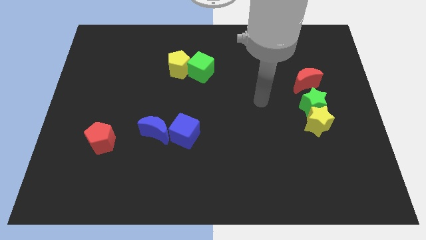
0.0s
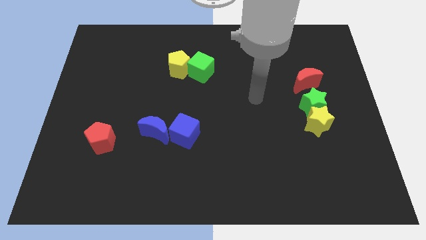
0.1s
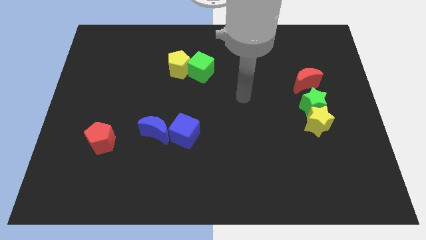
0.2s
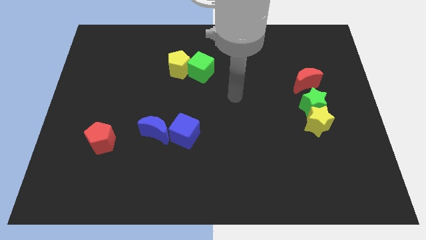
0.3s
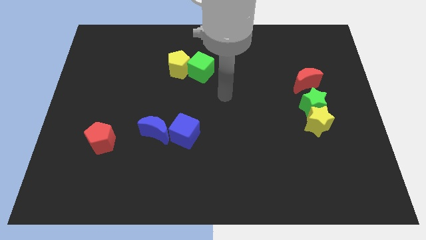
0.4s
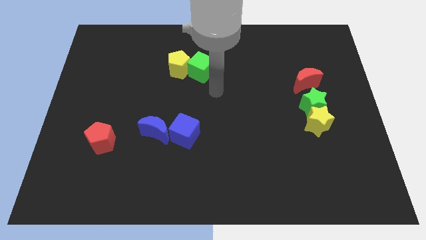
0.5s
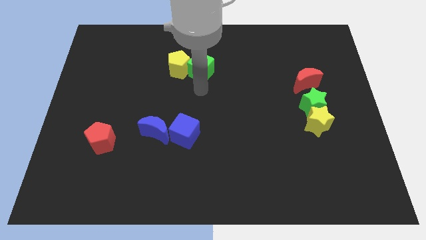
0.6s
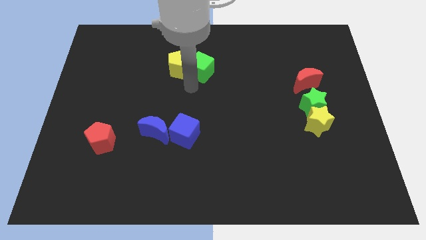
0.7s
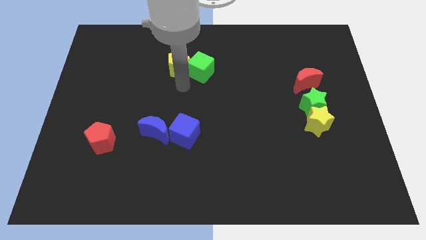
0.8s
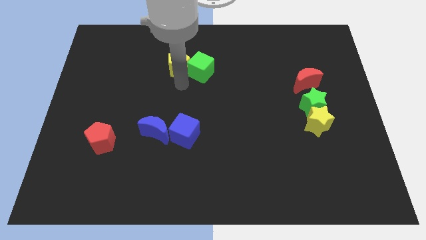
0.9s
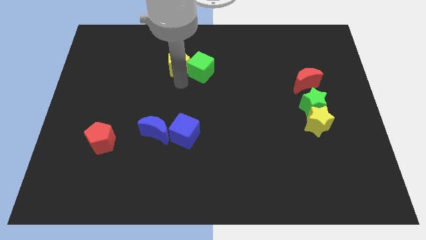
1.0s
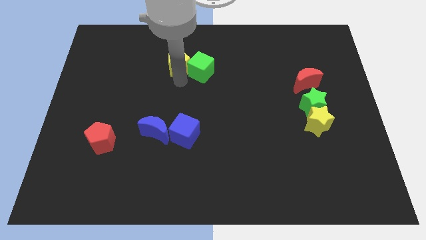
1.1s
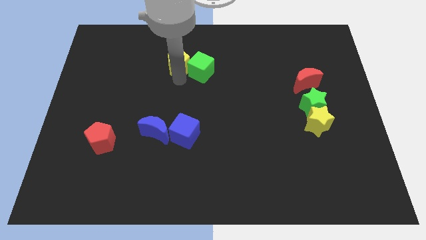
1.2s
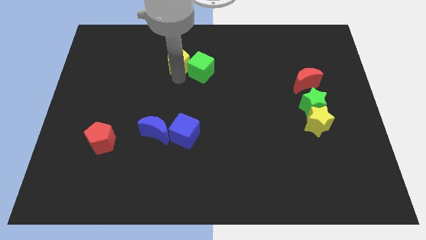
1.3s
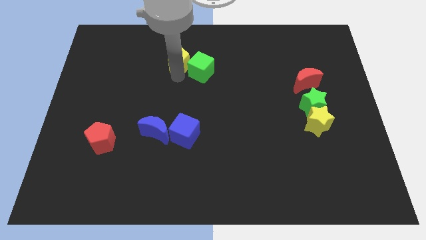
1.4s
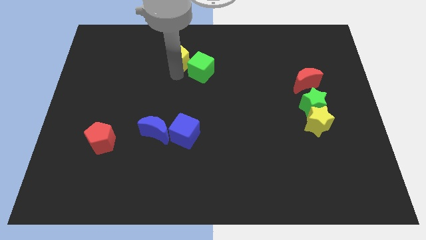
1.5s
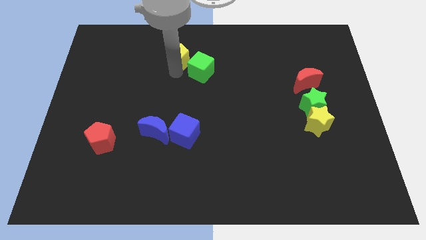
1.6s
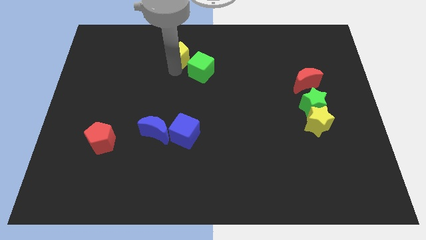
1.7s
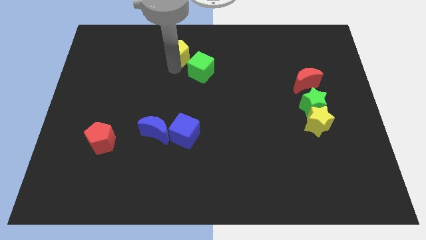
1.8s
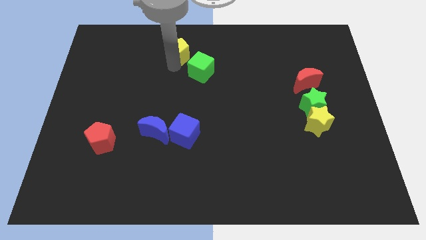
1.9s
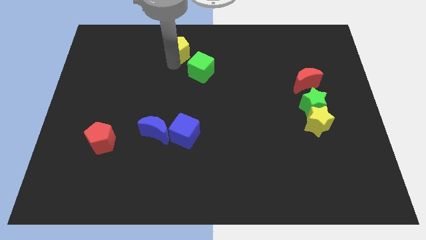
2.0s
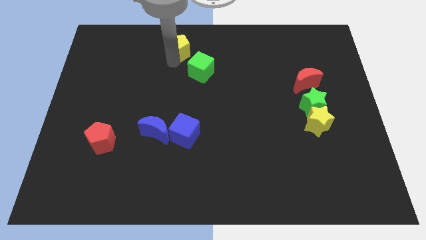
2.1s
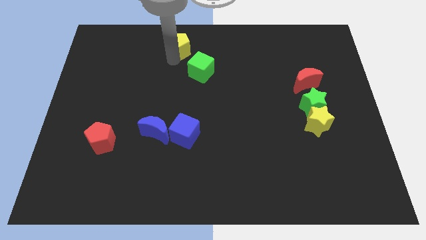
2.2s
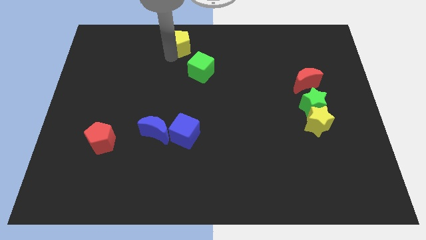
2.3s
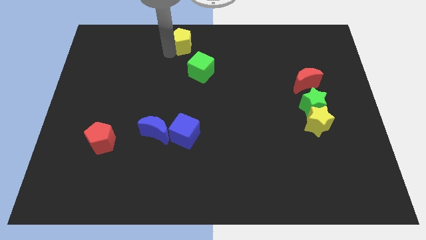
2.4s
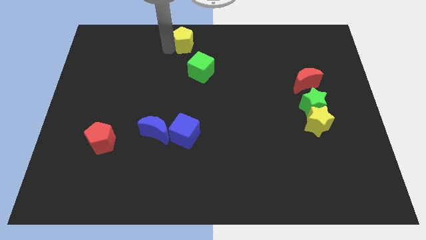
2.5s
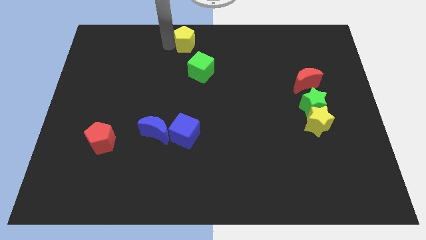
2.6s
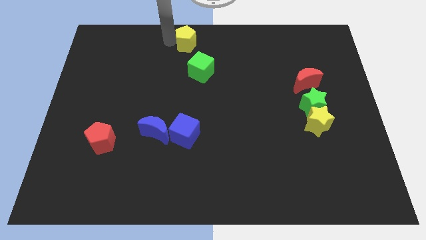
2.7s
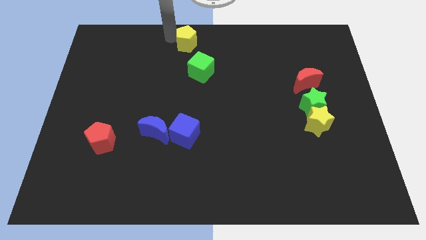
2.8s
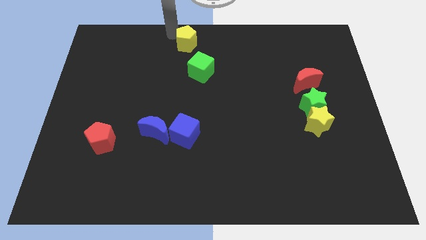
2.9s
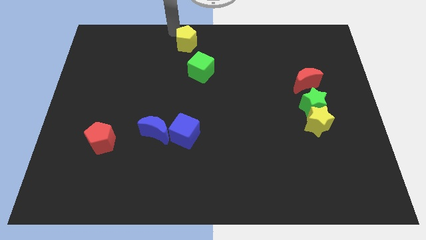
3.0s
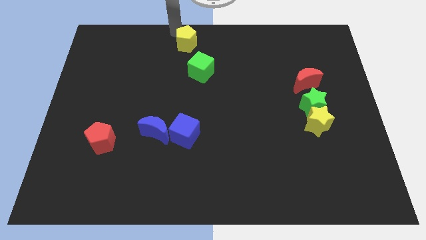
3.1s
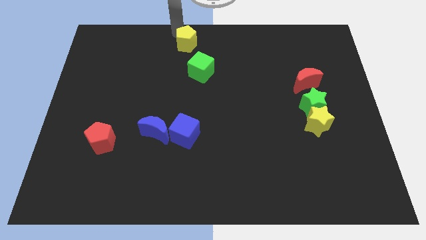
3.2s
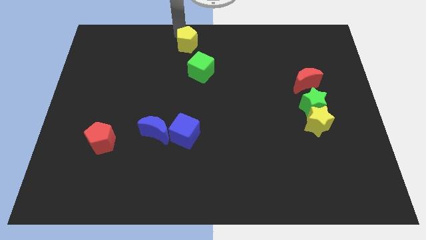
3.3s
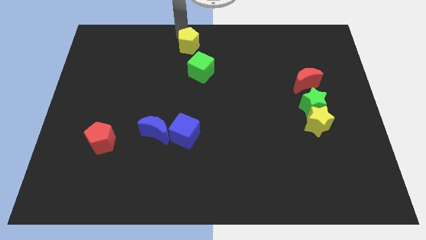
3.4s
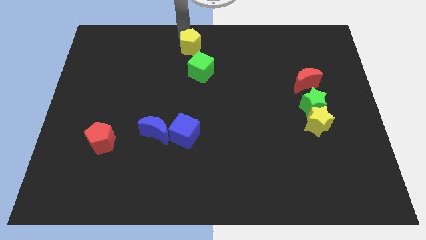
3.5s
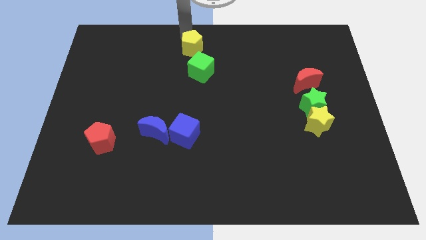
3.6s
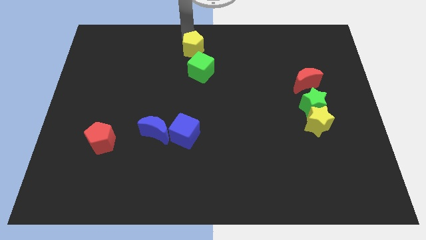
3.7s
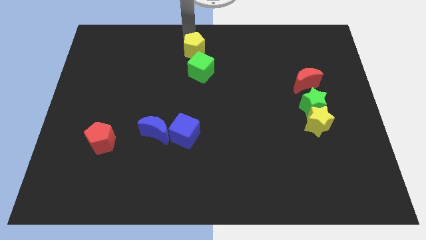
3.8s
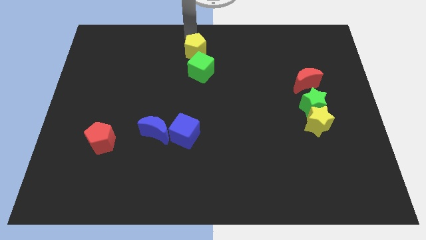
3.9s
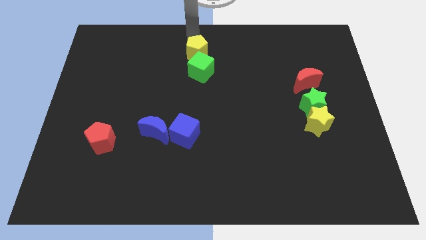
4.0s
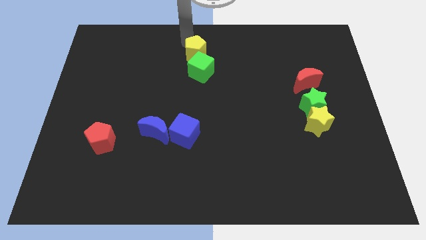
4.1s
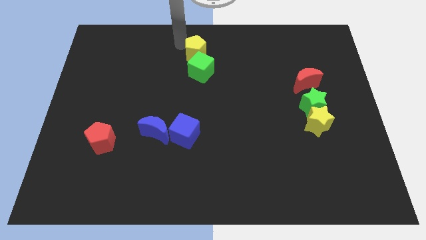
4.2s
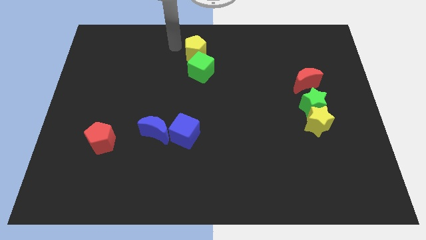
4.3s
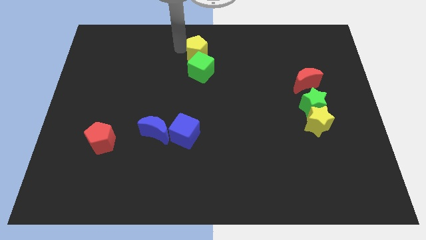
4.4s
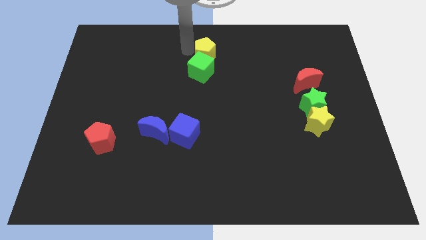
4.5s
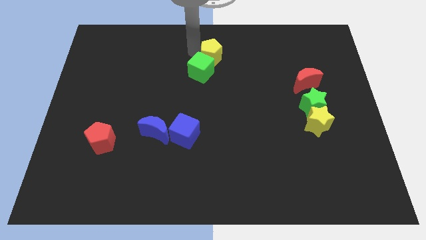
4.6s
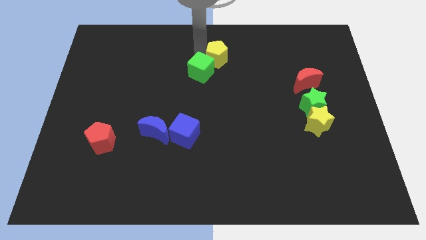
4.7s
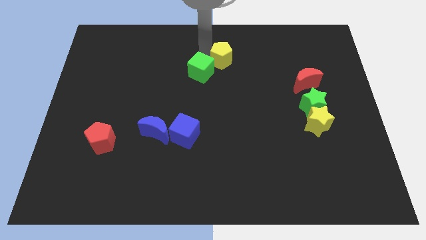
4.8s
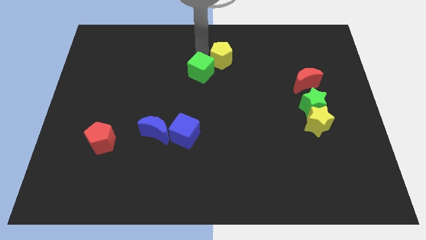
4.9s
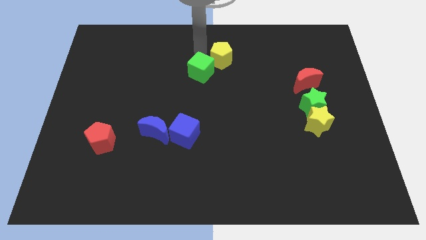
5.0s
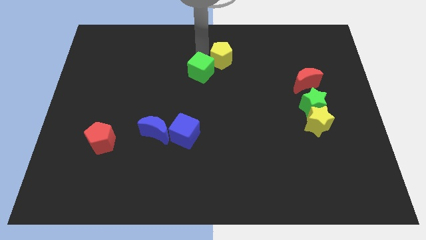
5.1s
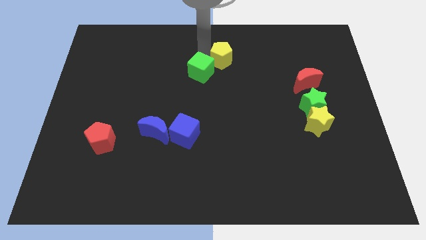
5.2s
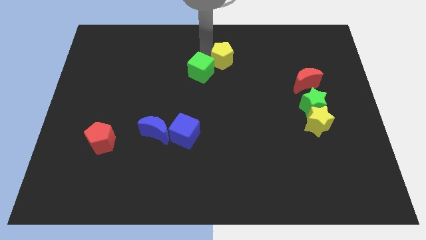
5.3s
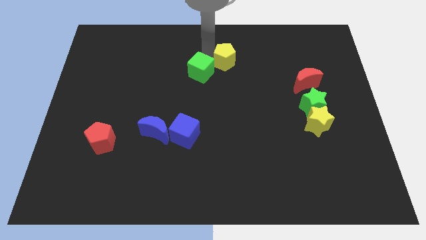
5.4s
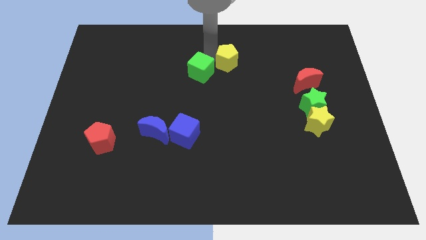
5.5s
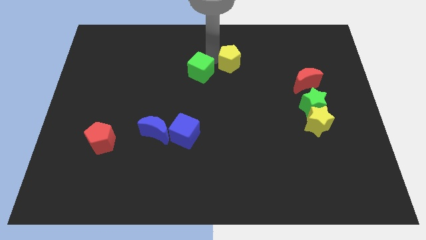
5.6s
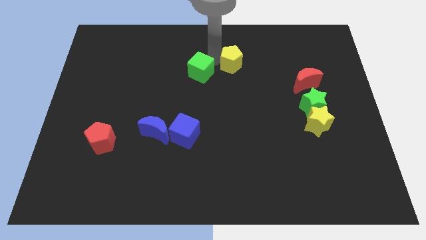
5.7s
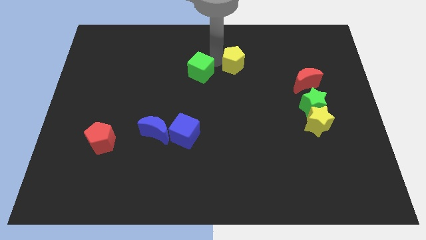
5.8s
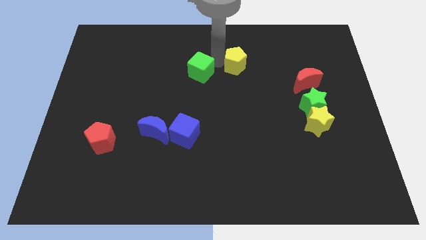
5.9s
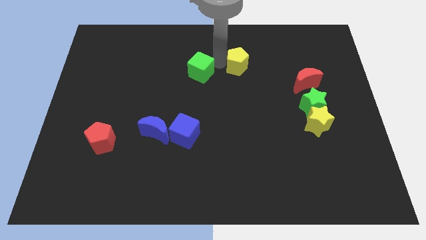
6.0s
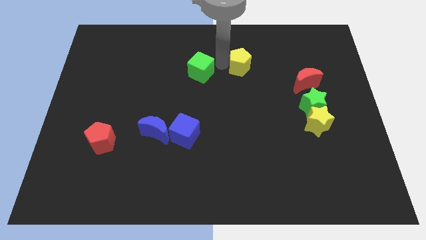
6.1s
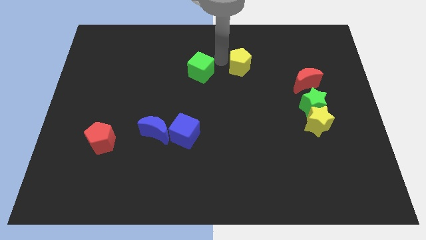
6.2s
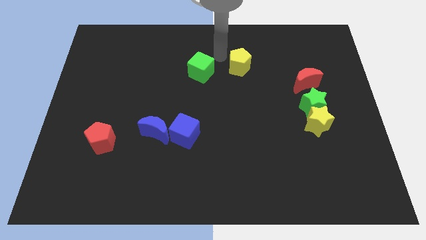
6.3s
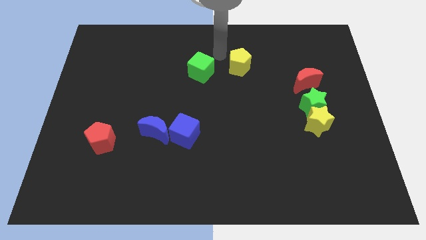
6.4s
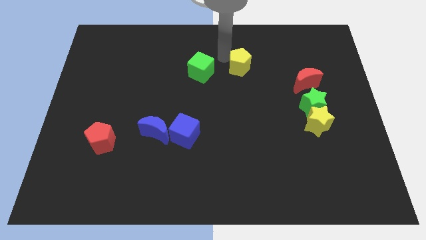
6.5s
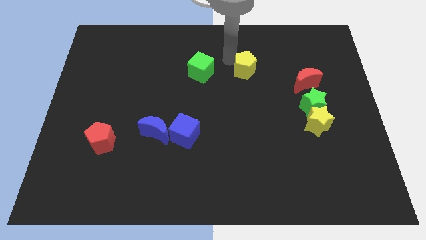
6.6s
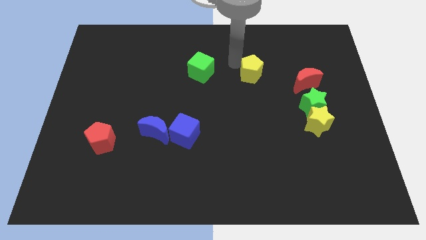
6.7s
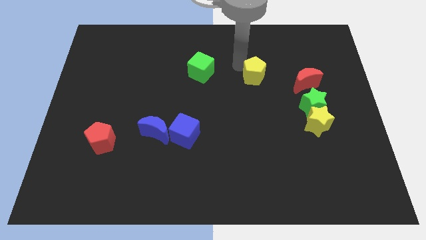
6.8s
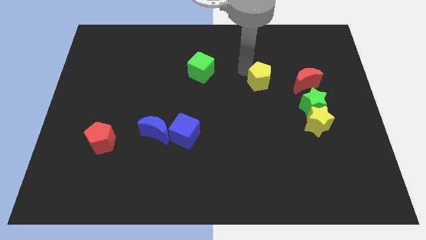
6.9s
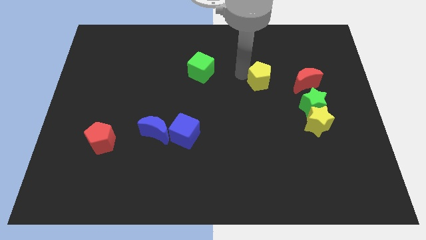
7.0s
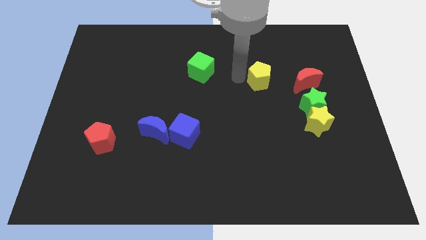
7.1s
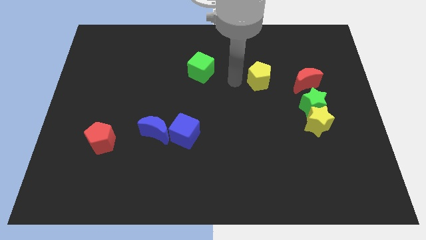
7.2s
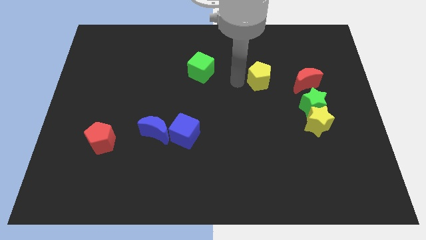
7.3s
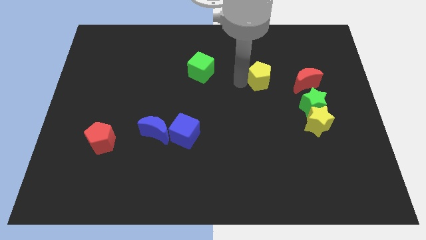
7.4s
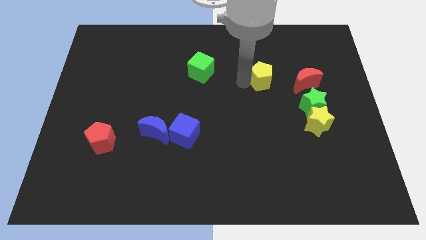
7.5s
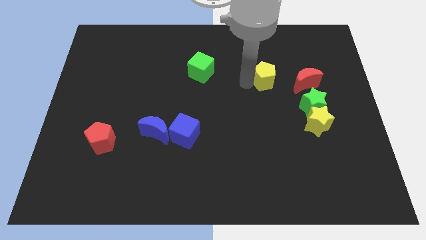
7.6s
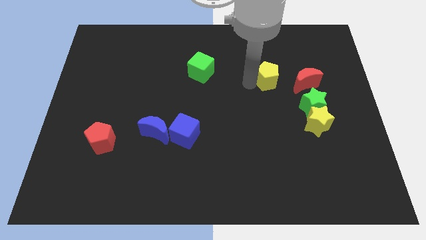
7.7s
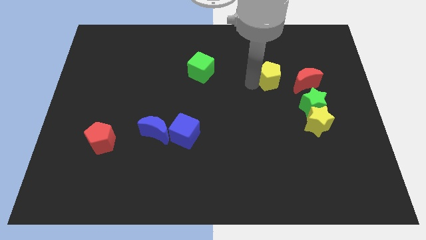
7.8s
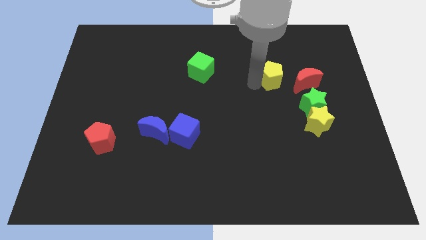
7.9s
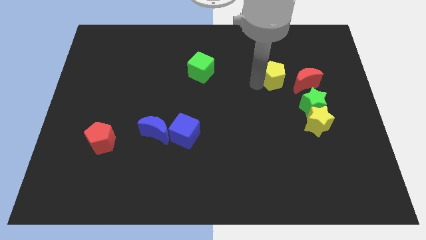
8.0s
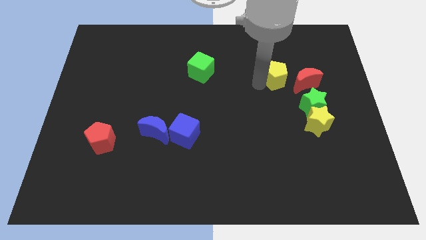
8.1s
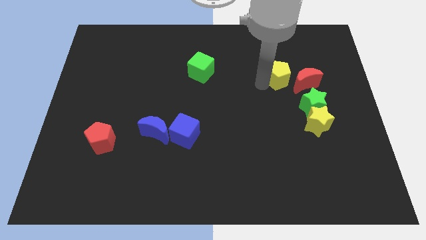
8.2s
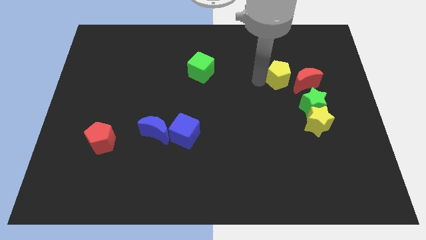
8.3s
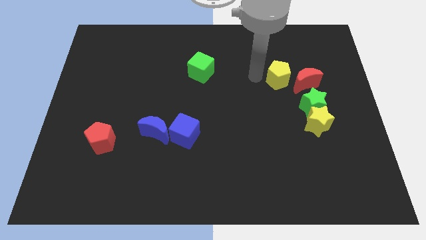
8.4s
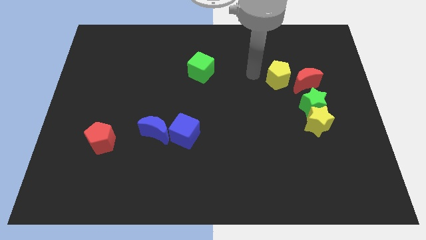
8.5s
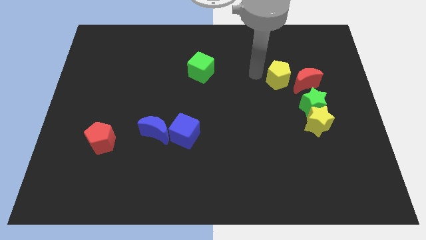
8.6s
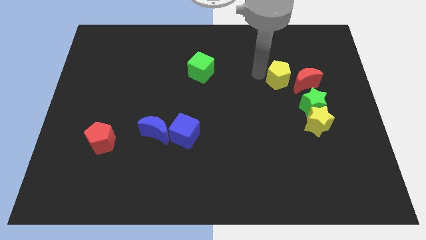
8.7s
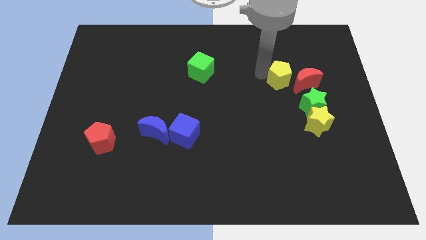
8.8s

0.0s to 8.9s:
move the yellow pentagon close to the red moon
